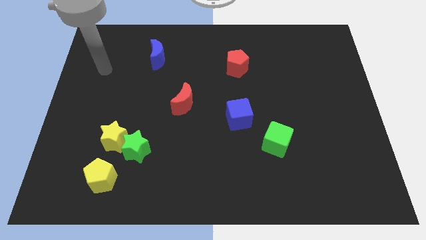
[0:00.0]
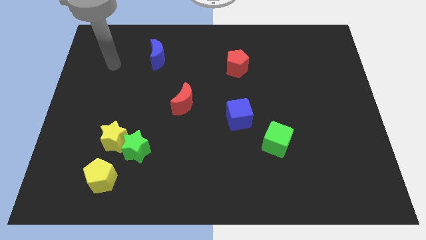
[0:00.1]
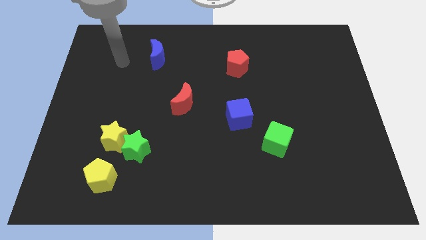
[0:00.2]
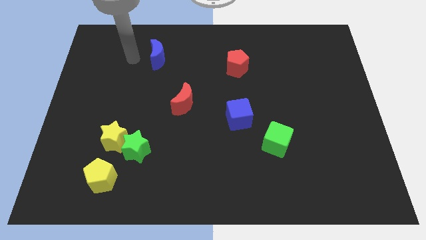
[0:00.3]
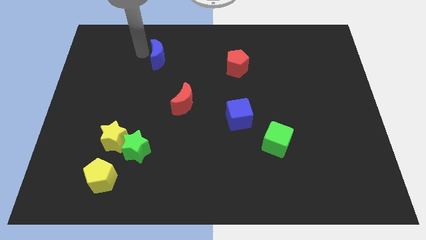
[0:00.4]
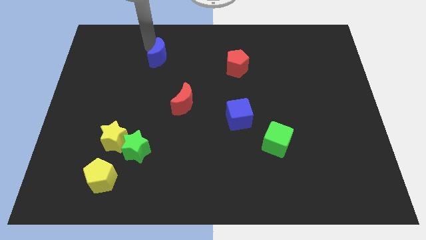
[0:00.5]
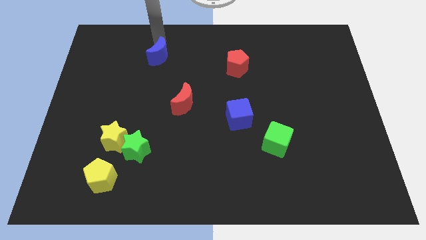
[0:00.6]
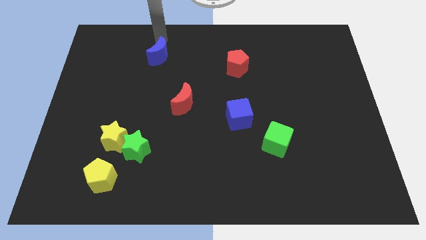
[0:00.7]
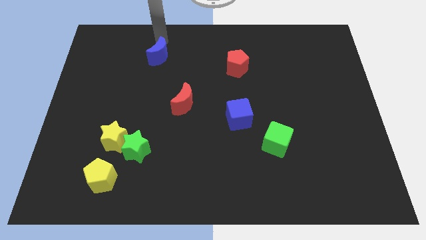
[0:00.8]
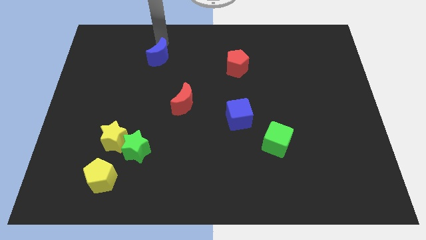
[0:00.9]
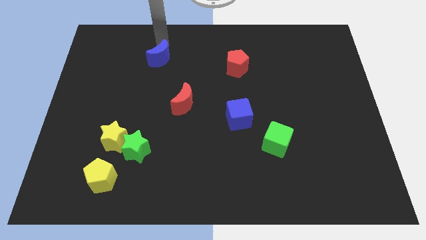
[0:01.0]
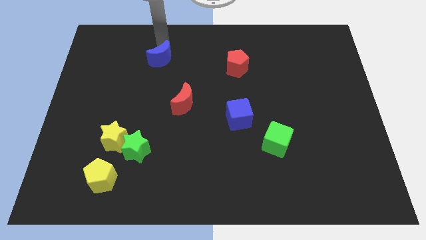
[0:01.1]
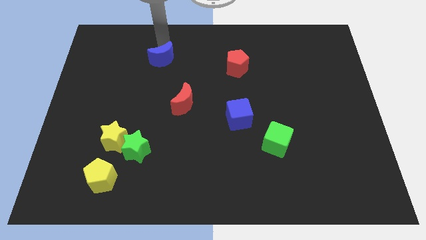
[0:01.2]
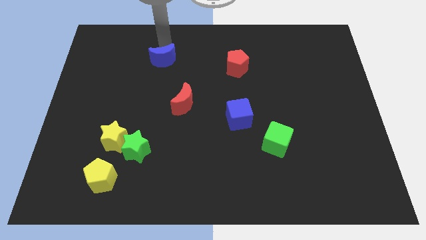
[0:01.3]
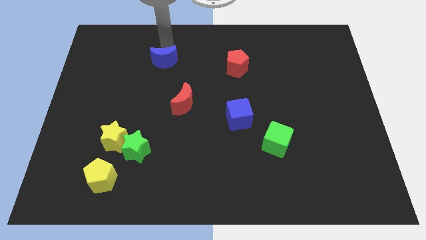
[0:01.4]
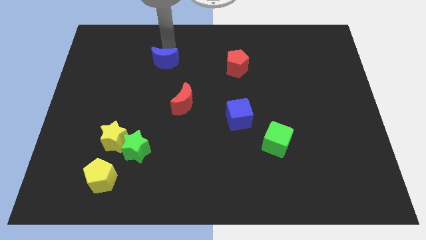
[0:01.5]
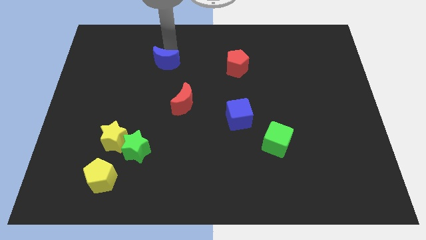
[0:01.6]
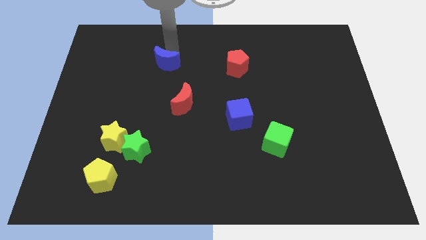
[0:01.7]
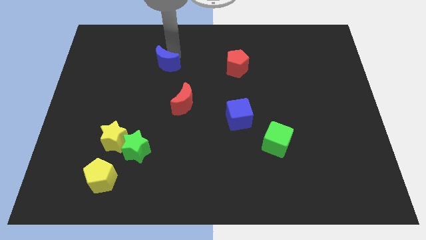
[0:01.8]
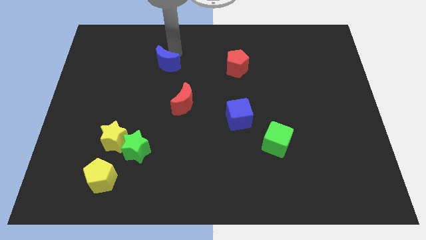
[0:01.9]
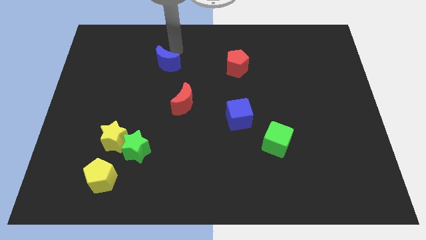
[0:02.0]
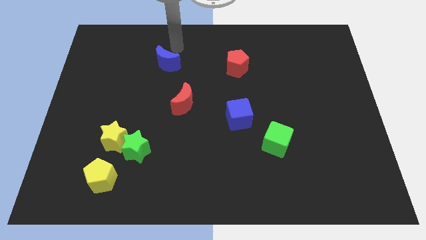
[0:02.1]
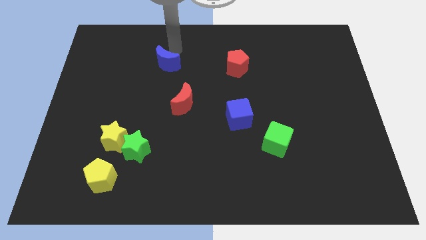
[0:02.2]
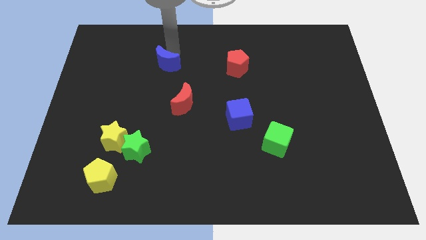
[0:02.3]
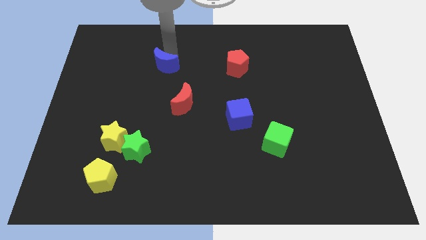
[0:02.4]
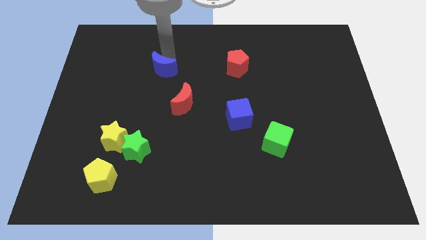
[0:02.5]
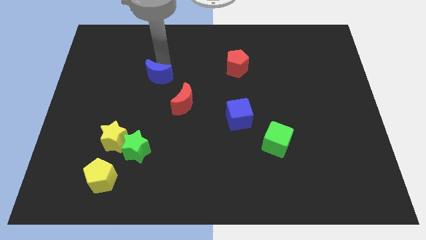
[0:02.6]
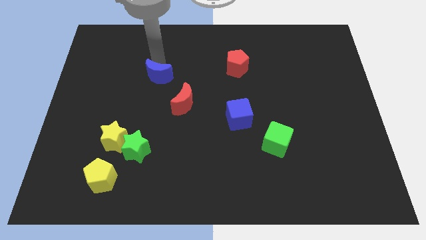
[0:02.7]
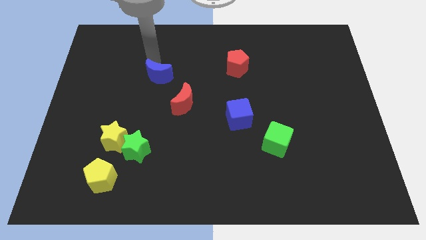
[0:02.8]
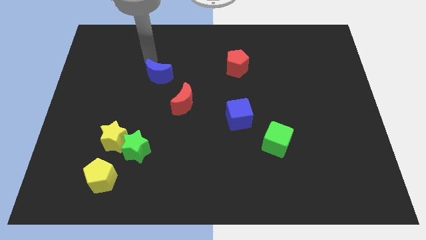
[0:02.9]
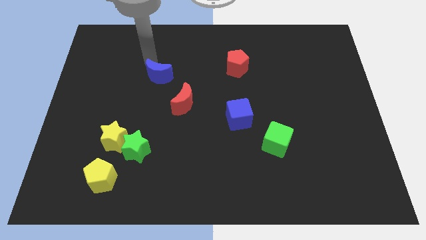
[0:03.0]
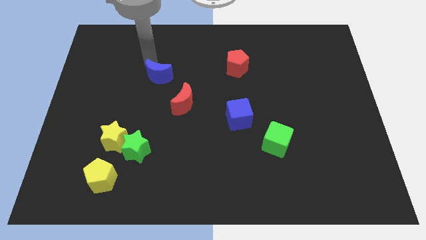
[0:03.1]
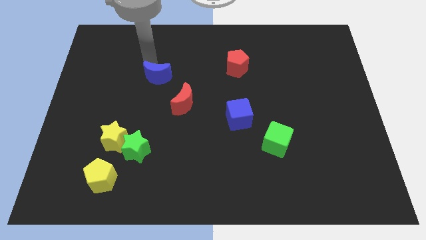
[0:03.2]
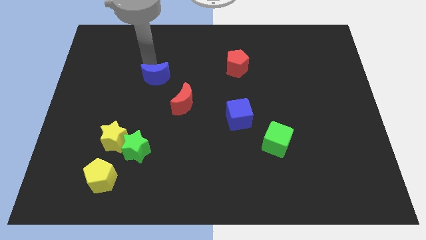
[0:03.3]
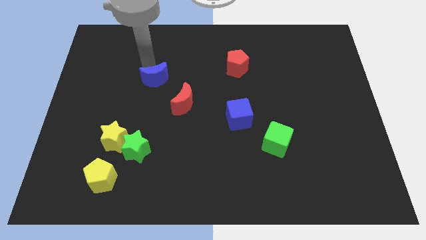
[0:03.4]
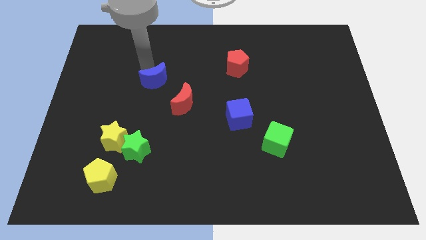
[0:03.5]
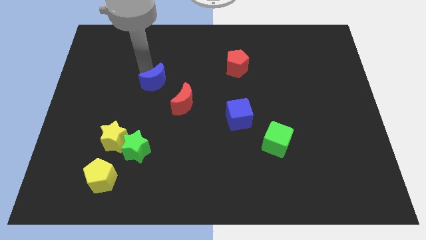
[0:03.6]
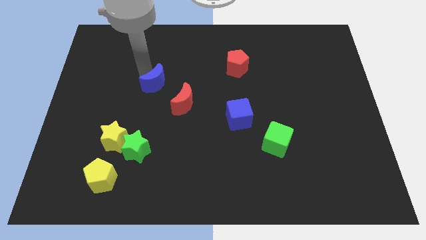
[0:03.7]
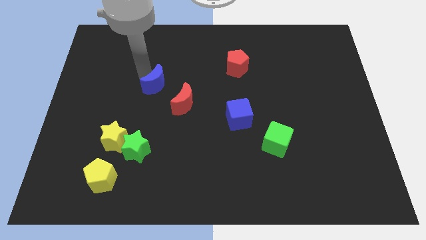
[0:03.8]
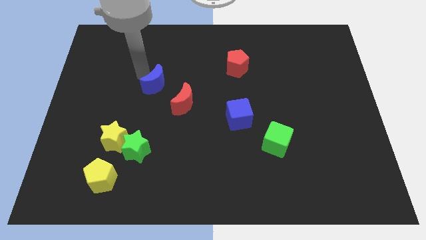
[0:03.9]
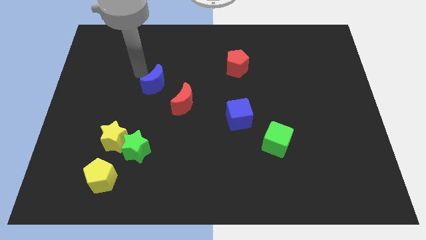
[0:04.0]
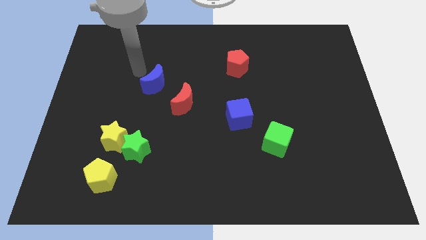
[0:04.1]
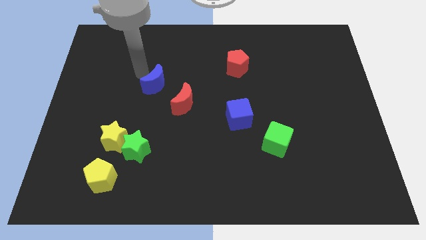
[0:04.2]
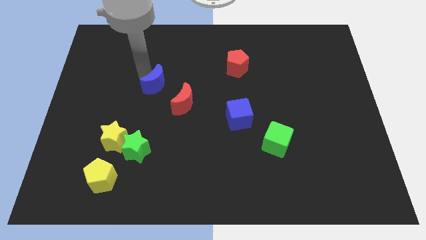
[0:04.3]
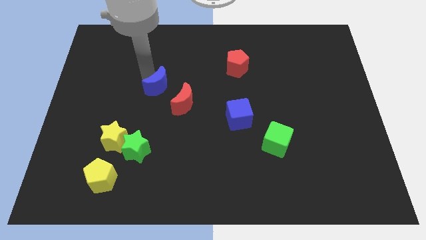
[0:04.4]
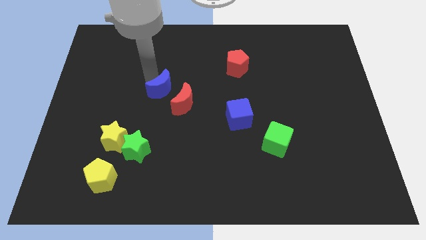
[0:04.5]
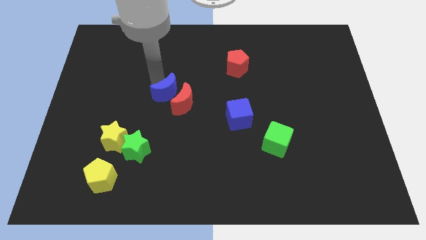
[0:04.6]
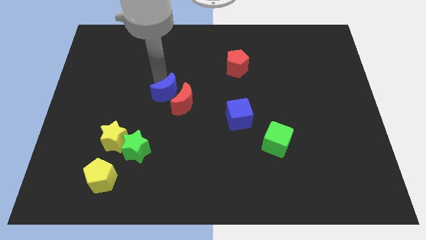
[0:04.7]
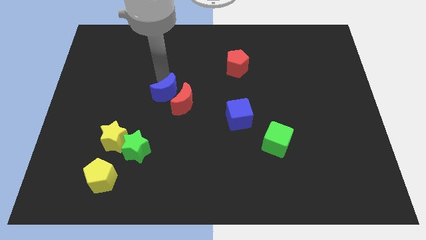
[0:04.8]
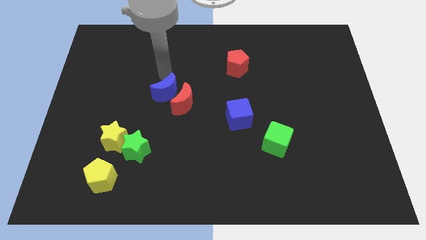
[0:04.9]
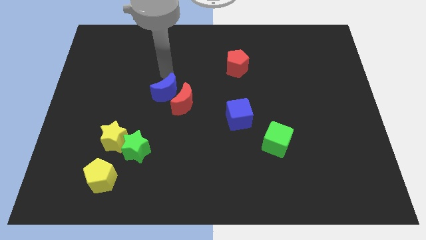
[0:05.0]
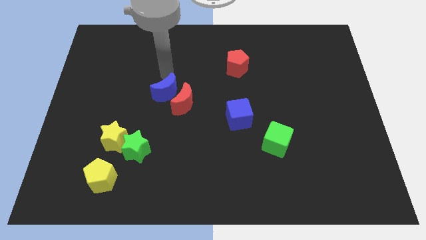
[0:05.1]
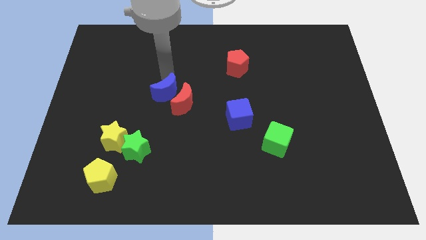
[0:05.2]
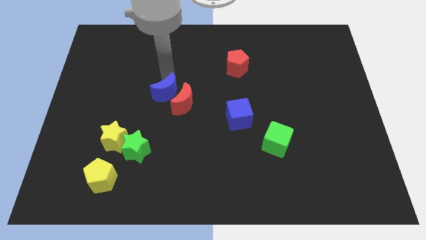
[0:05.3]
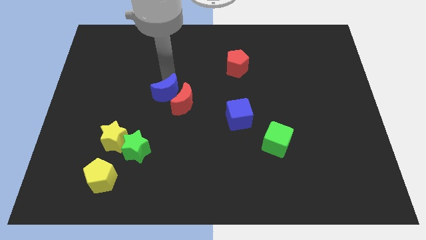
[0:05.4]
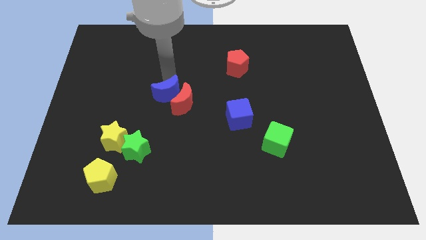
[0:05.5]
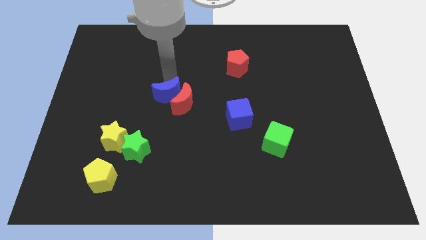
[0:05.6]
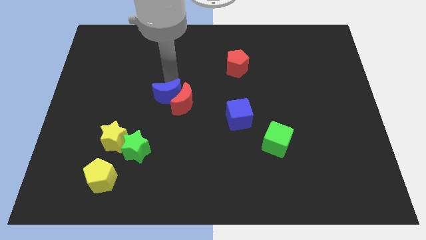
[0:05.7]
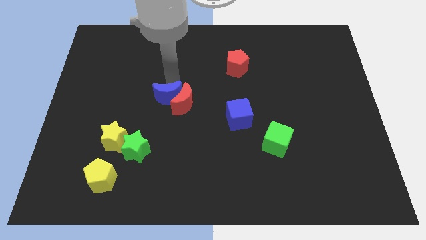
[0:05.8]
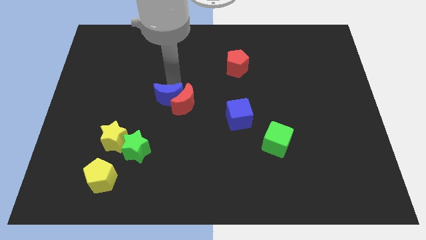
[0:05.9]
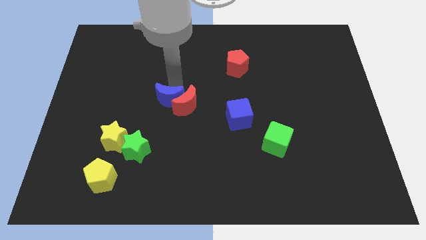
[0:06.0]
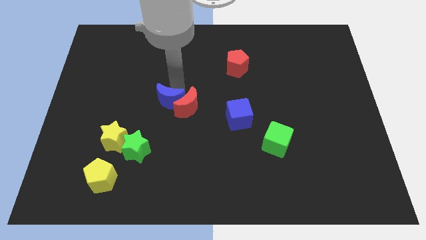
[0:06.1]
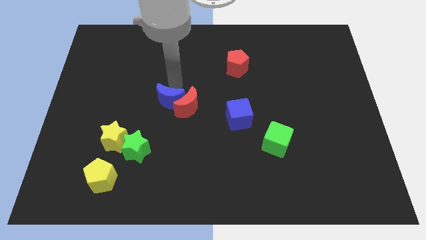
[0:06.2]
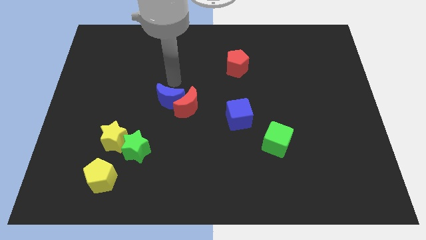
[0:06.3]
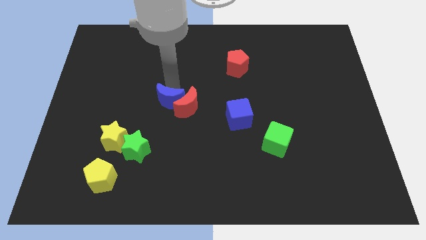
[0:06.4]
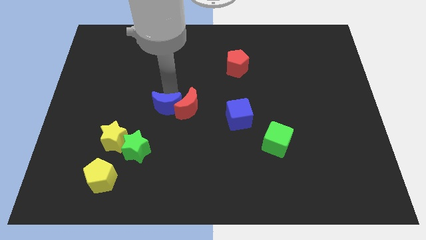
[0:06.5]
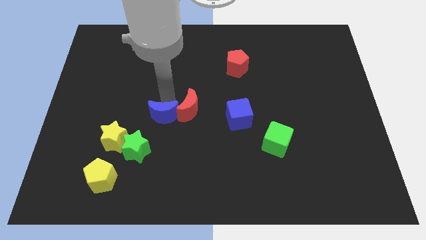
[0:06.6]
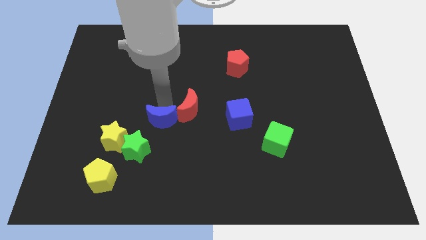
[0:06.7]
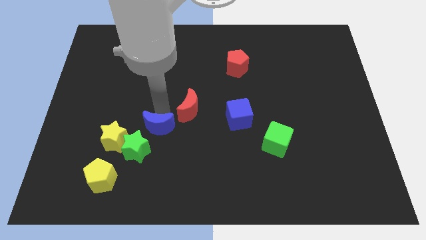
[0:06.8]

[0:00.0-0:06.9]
move the blue moon right of the yellow star

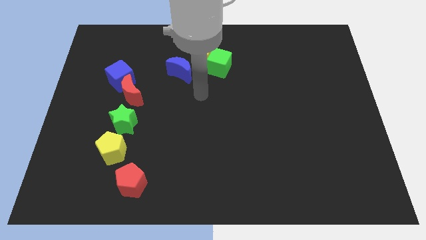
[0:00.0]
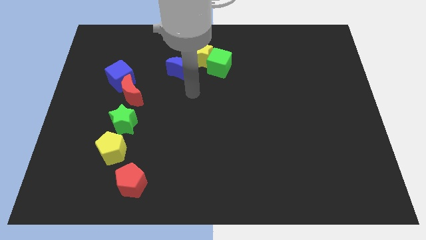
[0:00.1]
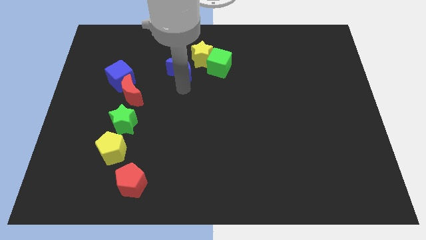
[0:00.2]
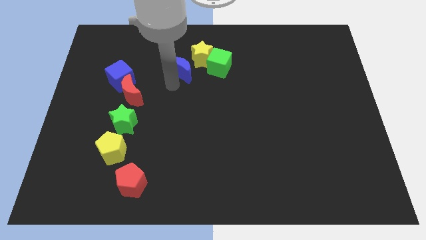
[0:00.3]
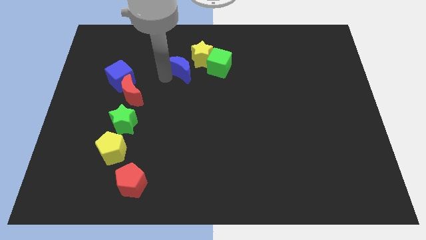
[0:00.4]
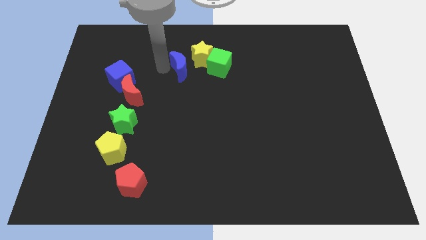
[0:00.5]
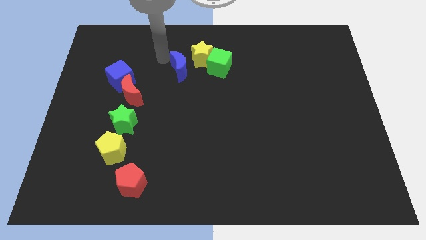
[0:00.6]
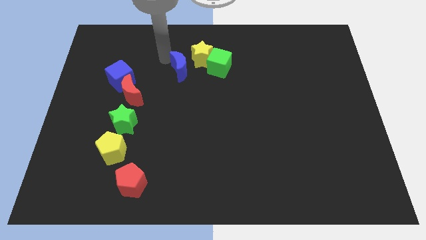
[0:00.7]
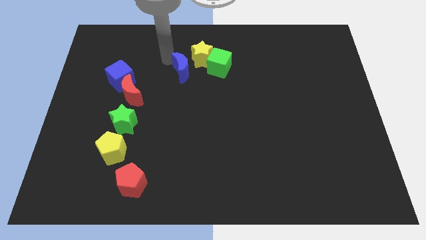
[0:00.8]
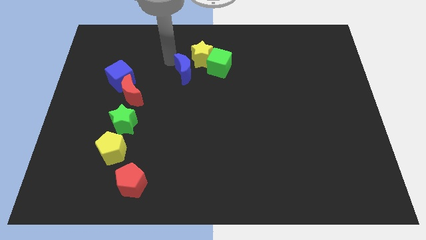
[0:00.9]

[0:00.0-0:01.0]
slide the blue moon to the bottom left of the green cube
